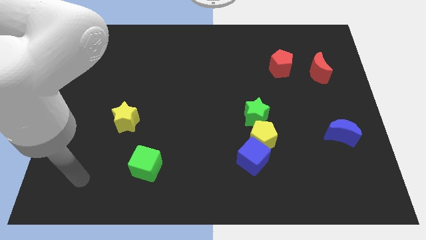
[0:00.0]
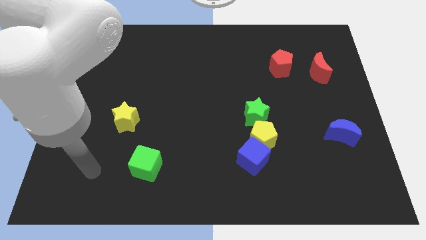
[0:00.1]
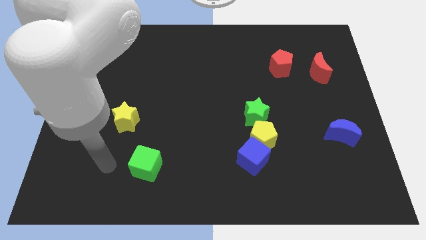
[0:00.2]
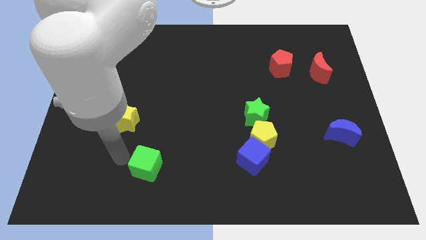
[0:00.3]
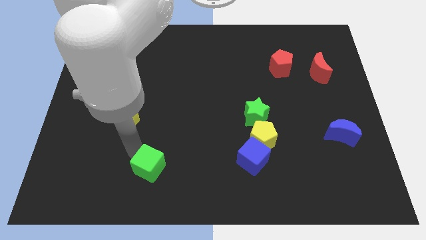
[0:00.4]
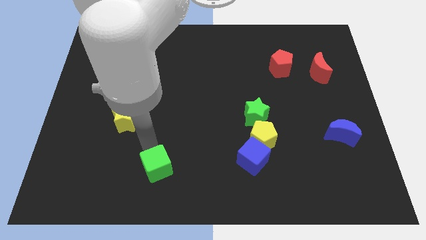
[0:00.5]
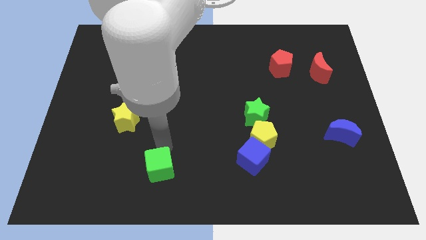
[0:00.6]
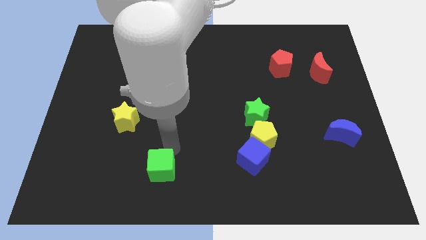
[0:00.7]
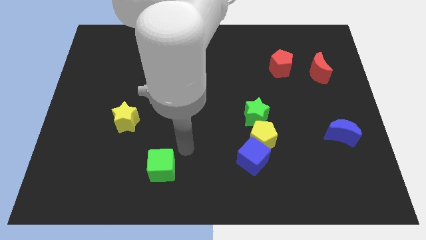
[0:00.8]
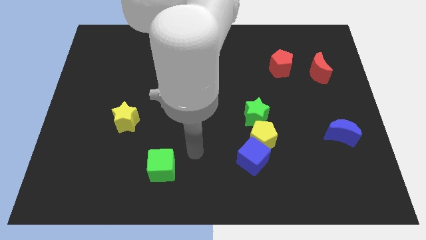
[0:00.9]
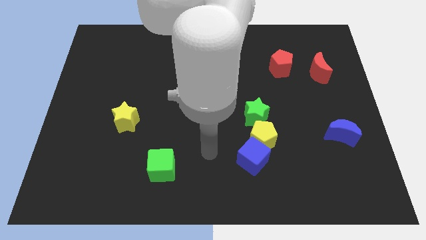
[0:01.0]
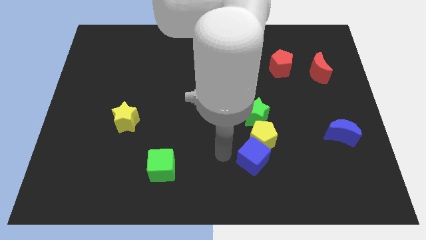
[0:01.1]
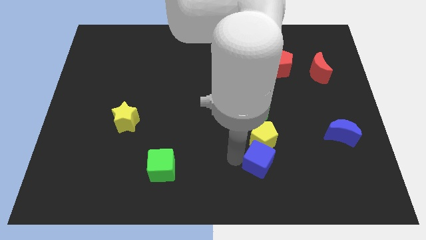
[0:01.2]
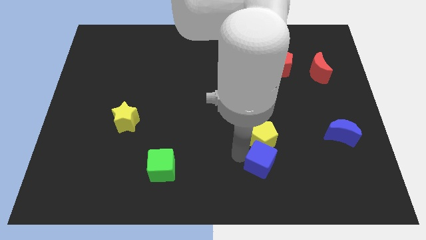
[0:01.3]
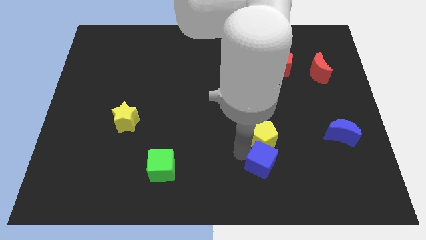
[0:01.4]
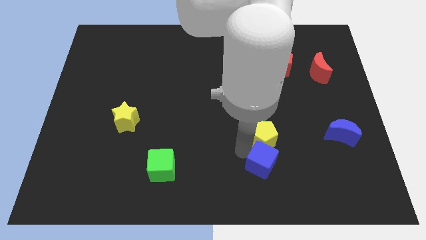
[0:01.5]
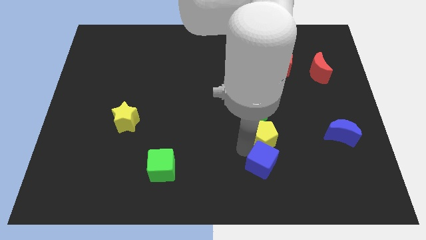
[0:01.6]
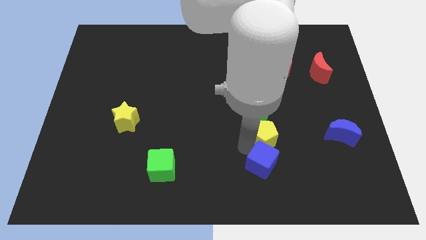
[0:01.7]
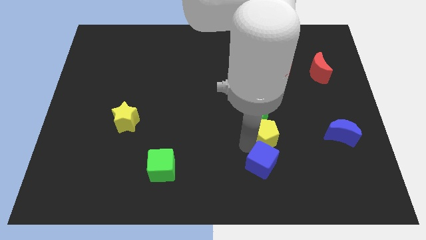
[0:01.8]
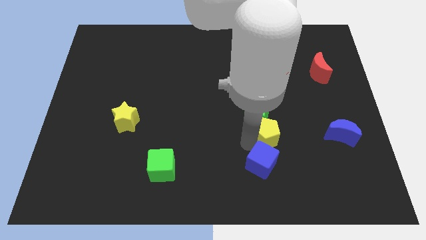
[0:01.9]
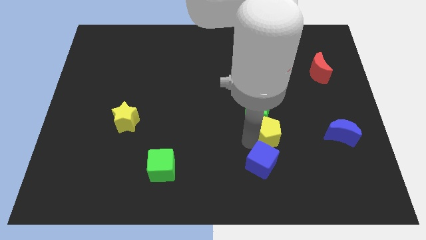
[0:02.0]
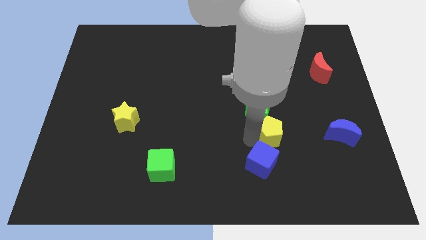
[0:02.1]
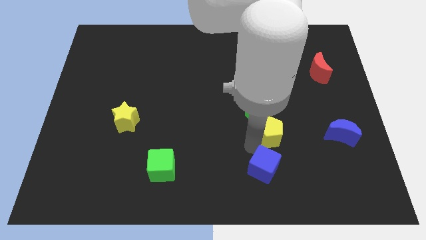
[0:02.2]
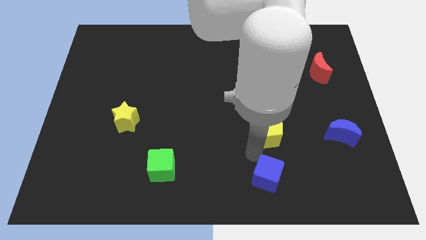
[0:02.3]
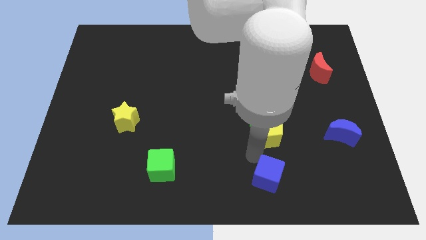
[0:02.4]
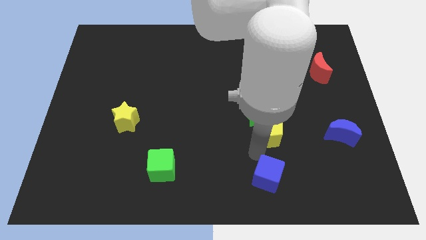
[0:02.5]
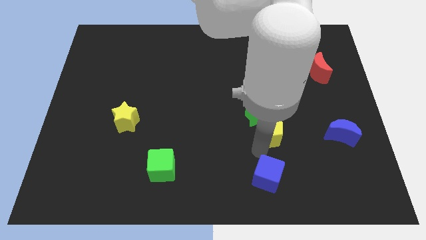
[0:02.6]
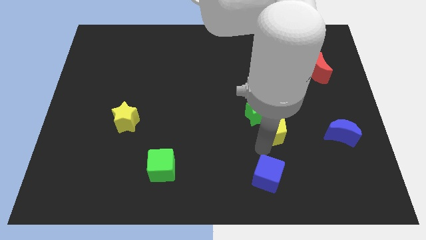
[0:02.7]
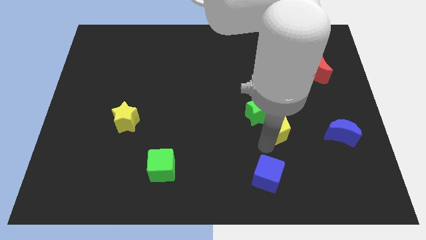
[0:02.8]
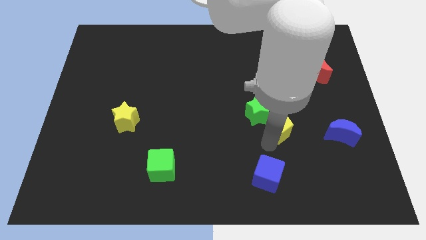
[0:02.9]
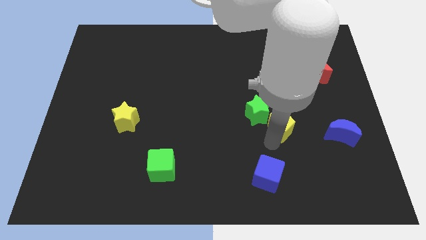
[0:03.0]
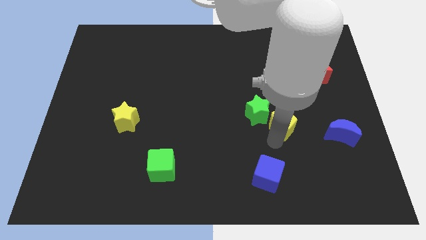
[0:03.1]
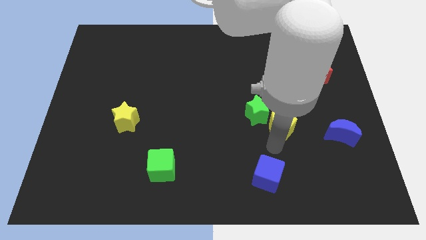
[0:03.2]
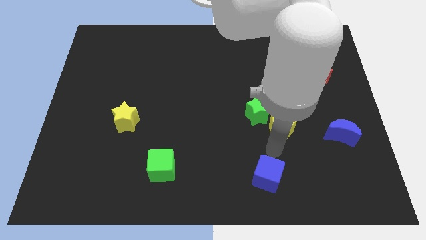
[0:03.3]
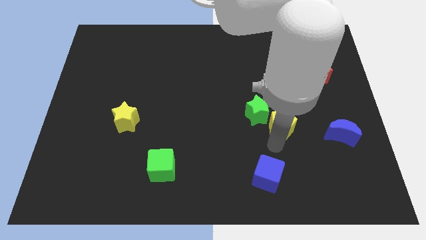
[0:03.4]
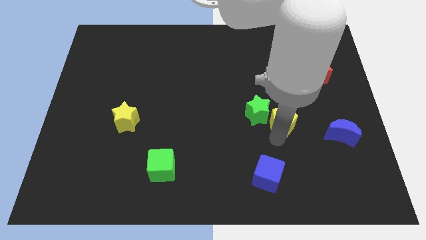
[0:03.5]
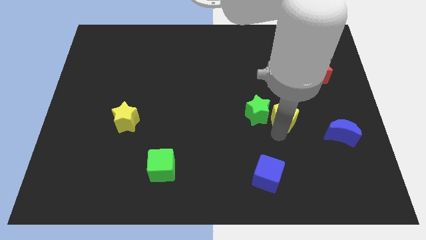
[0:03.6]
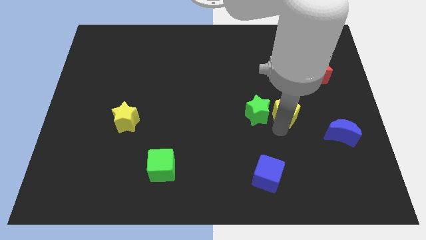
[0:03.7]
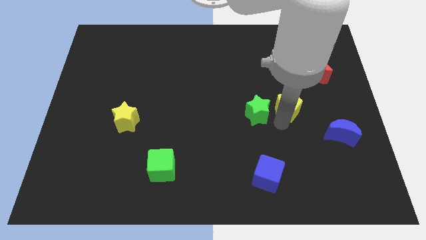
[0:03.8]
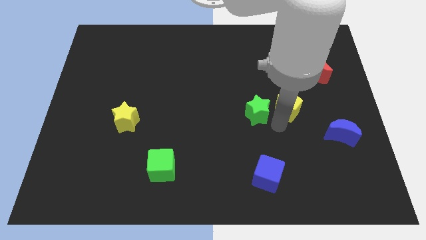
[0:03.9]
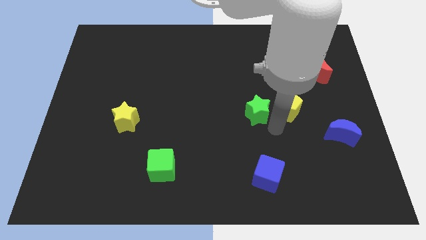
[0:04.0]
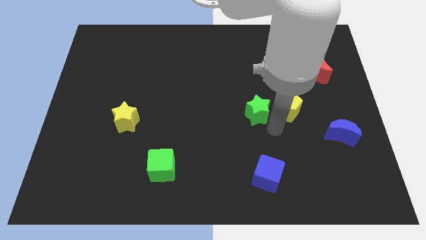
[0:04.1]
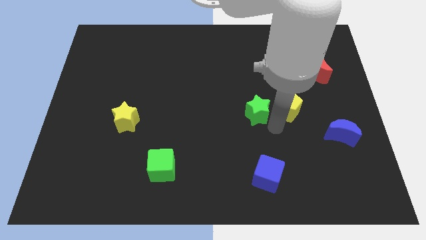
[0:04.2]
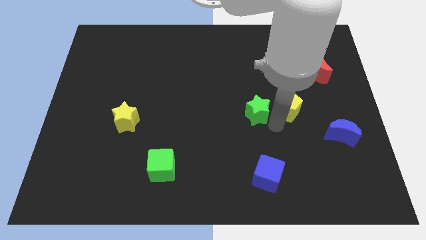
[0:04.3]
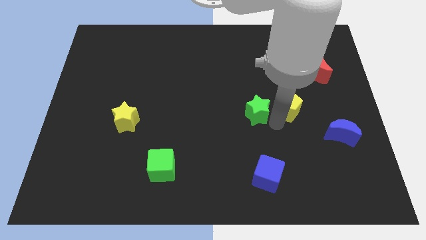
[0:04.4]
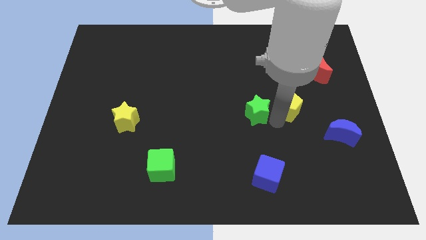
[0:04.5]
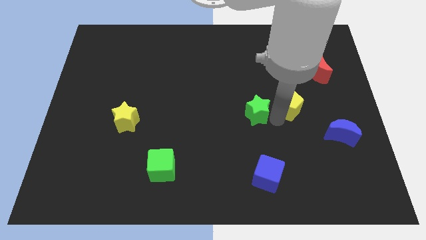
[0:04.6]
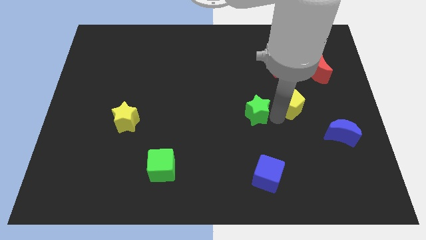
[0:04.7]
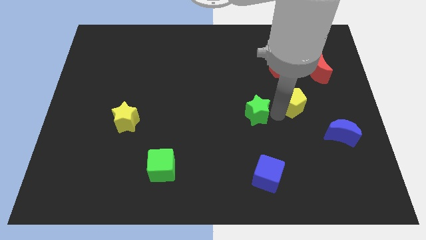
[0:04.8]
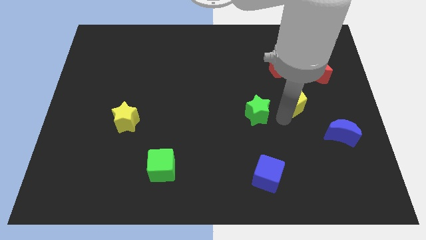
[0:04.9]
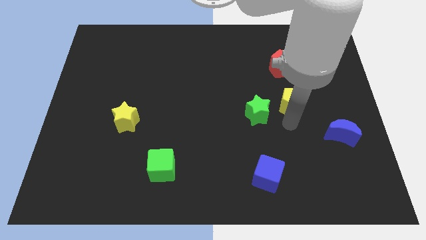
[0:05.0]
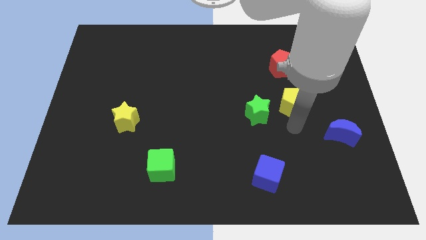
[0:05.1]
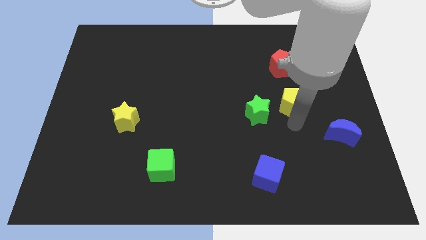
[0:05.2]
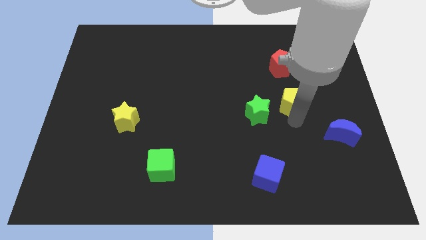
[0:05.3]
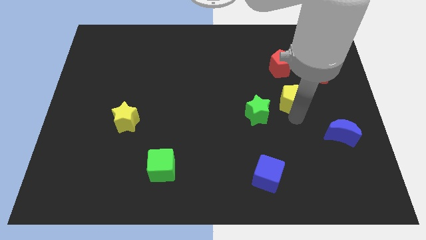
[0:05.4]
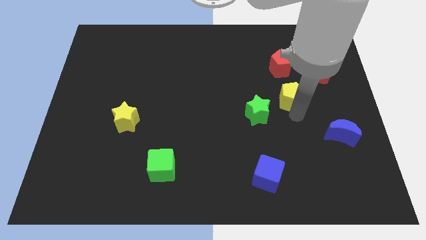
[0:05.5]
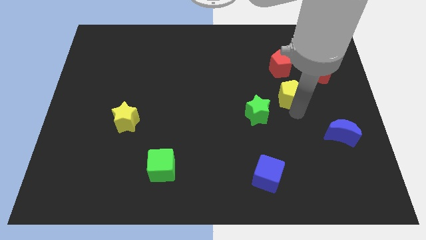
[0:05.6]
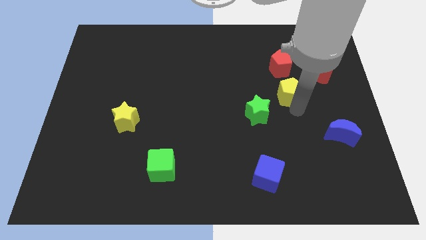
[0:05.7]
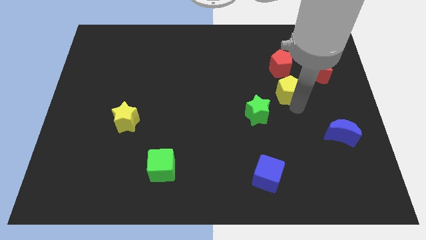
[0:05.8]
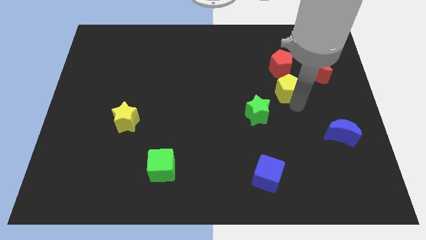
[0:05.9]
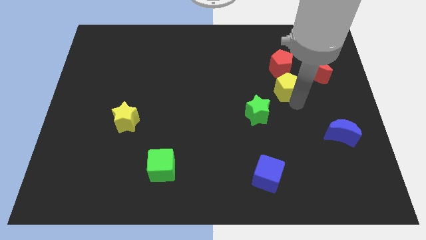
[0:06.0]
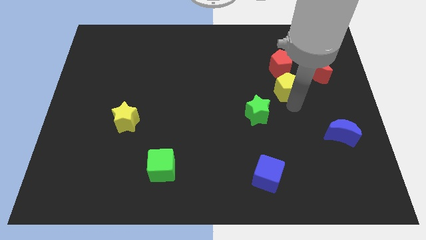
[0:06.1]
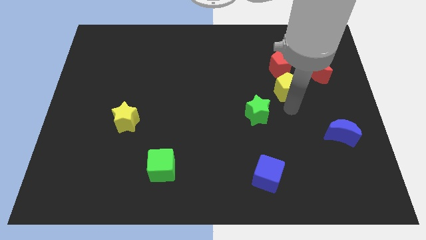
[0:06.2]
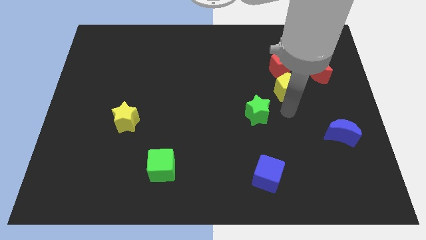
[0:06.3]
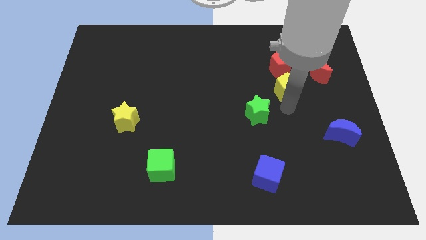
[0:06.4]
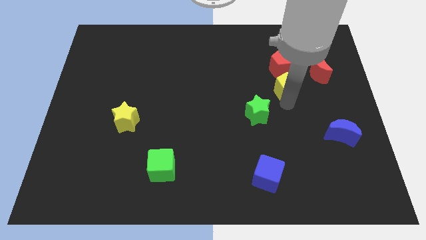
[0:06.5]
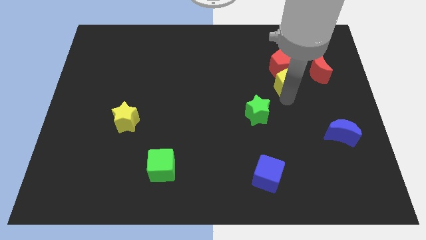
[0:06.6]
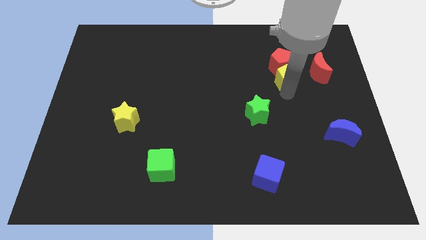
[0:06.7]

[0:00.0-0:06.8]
slide the yellow pentagon next to the red pentagon

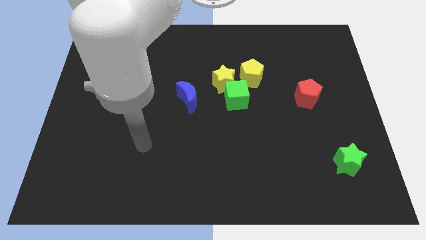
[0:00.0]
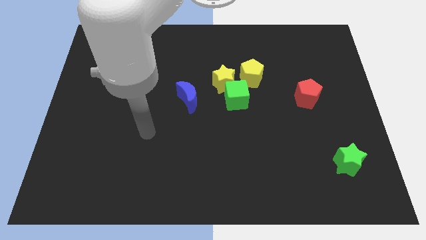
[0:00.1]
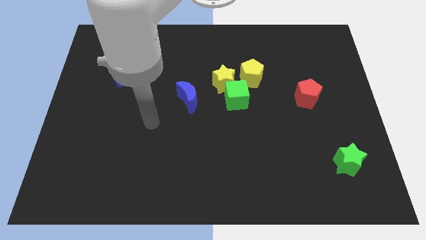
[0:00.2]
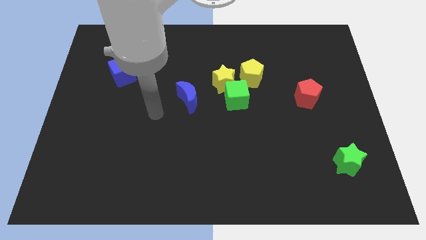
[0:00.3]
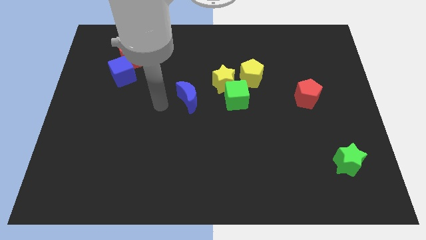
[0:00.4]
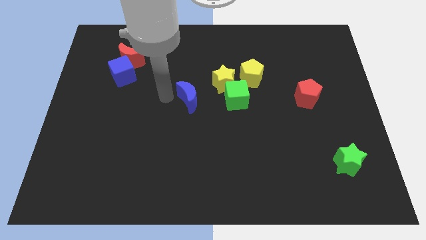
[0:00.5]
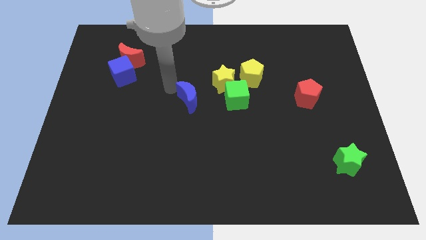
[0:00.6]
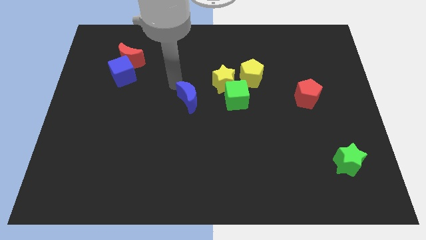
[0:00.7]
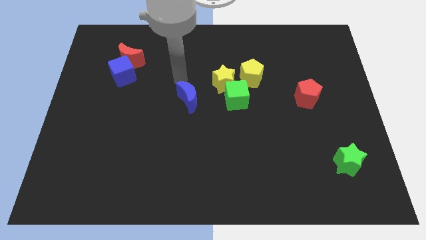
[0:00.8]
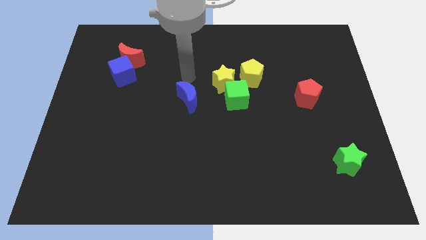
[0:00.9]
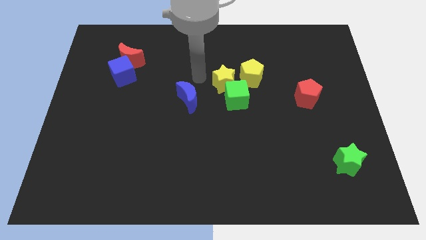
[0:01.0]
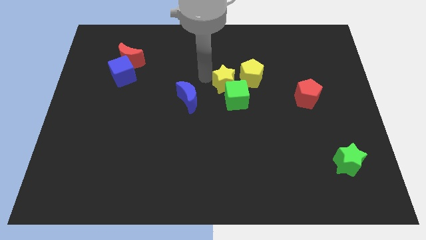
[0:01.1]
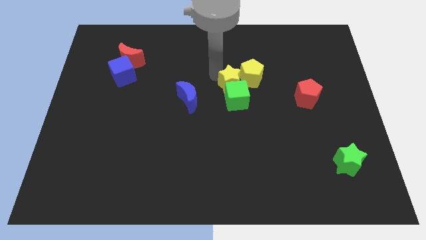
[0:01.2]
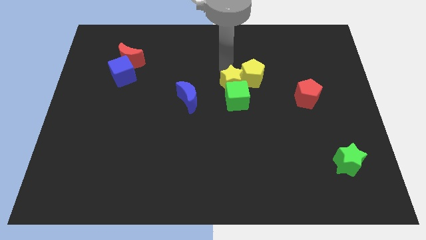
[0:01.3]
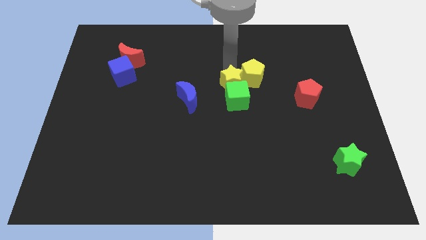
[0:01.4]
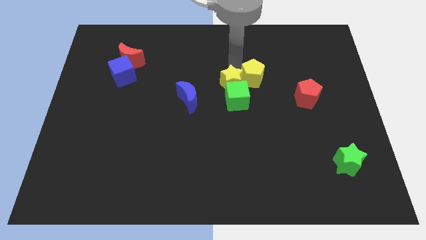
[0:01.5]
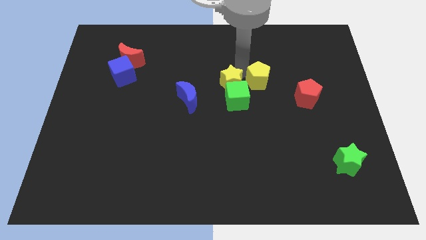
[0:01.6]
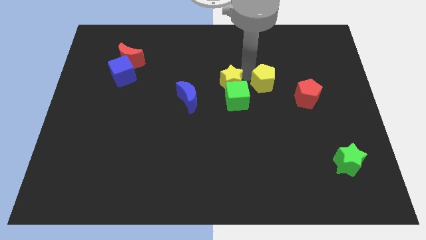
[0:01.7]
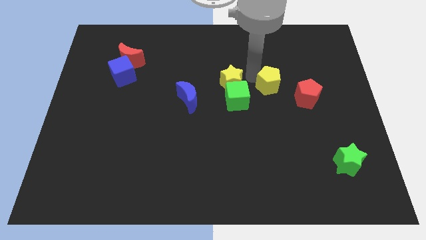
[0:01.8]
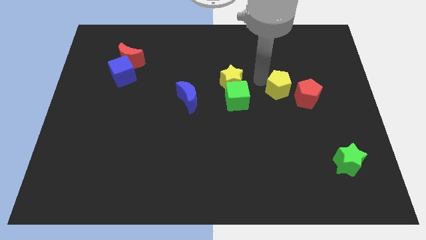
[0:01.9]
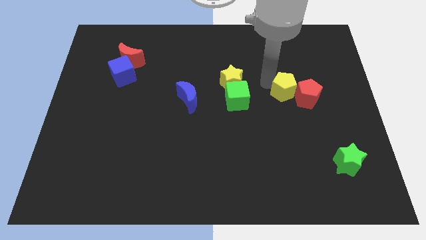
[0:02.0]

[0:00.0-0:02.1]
move the yellow pentagon next to the red pentagon
